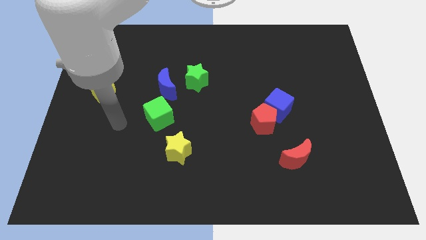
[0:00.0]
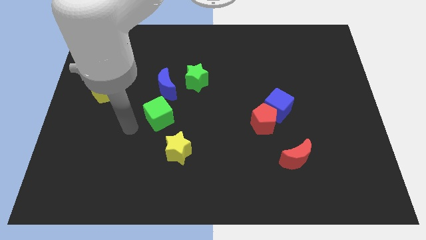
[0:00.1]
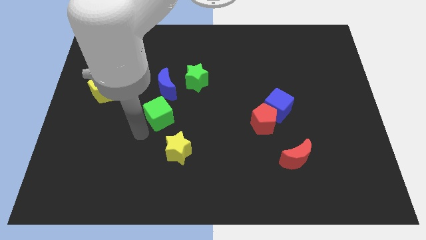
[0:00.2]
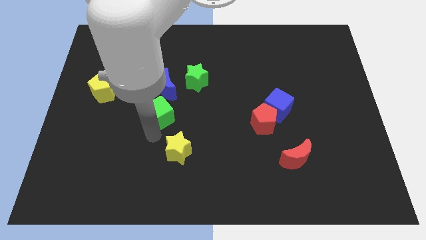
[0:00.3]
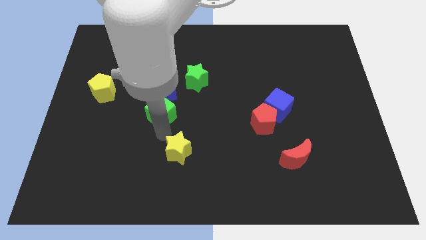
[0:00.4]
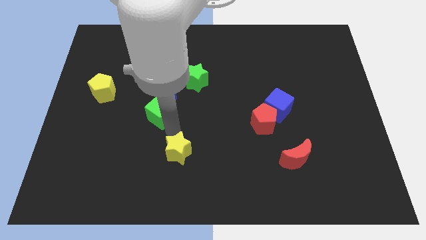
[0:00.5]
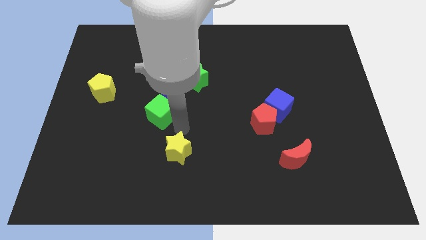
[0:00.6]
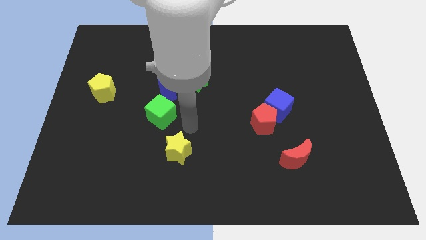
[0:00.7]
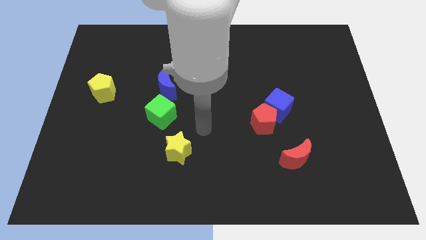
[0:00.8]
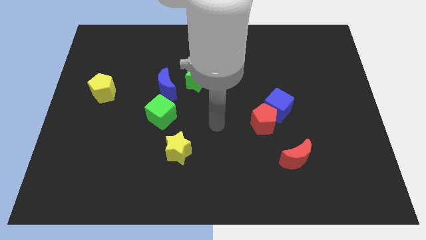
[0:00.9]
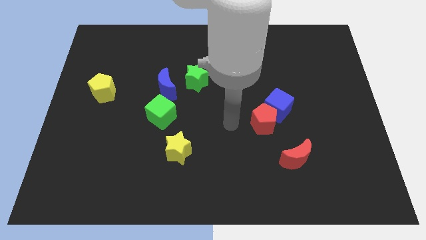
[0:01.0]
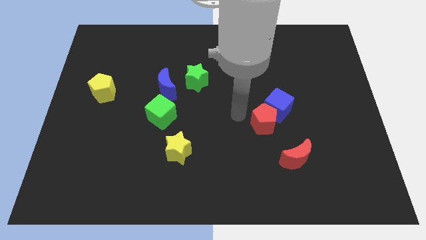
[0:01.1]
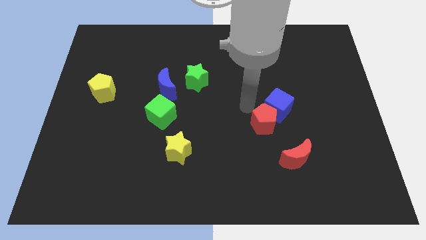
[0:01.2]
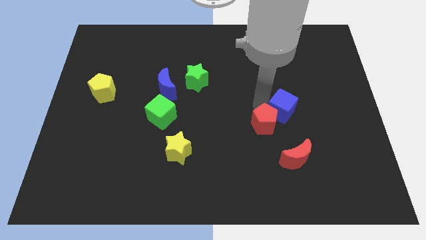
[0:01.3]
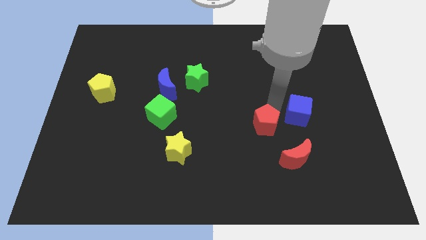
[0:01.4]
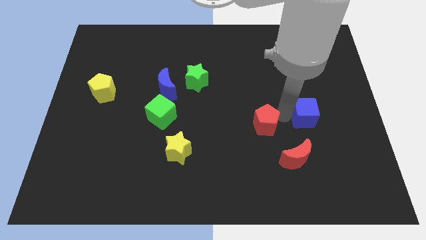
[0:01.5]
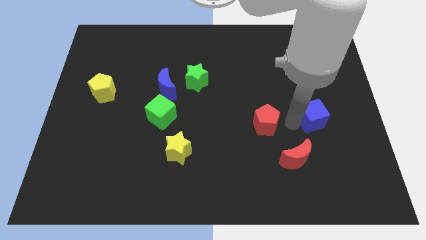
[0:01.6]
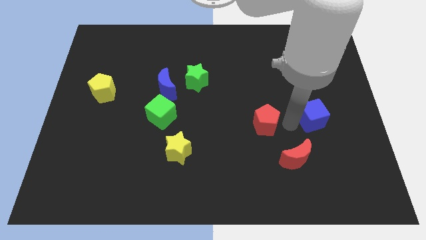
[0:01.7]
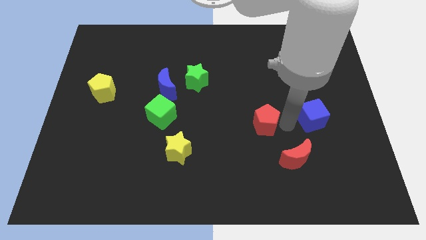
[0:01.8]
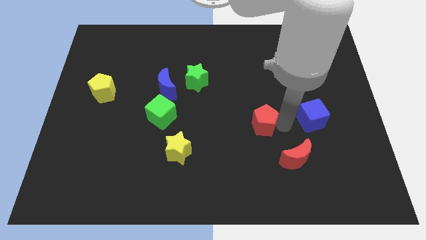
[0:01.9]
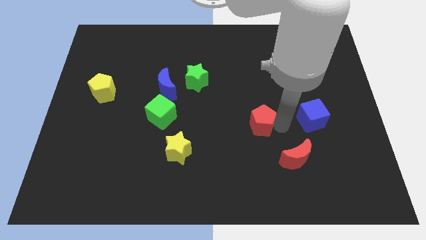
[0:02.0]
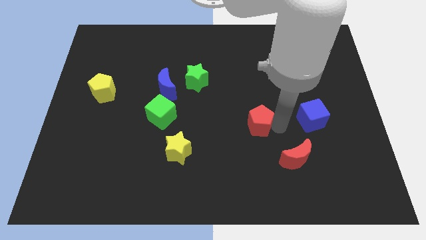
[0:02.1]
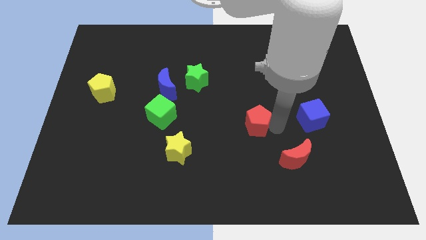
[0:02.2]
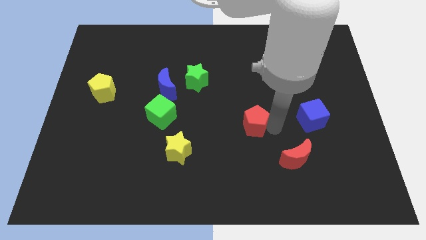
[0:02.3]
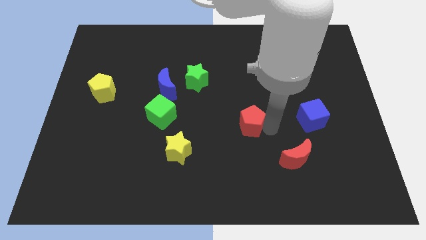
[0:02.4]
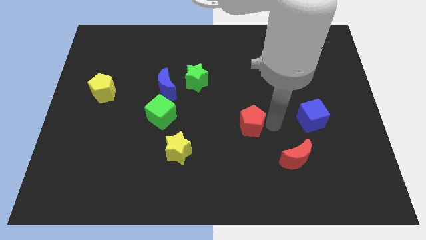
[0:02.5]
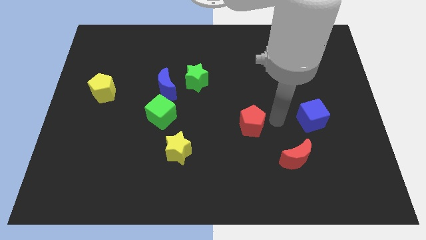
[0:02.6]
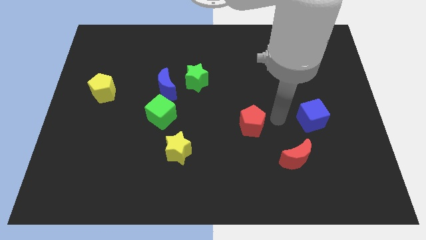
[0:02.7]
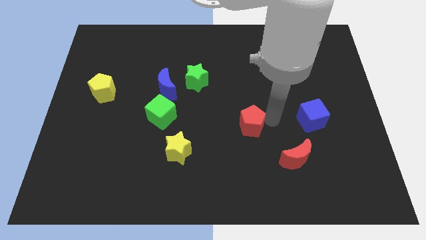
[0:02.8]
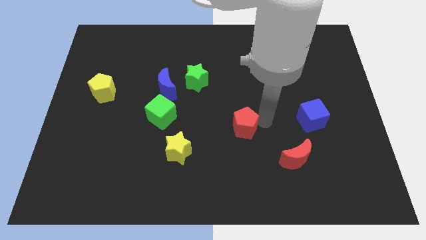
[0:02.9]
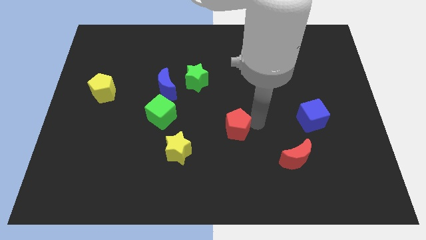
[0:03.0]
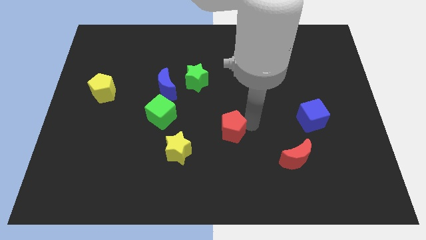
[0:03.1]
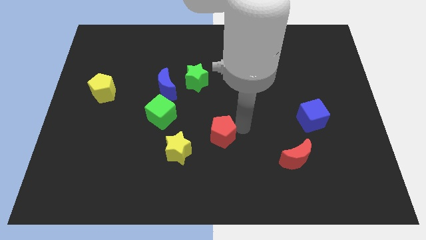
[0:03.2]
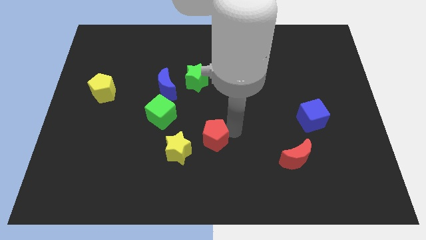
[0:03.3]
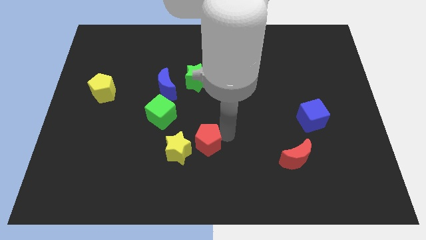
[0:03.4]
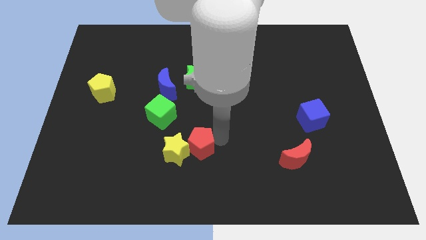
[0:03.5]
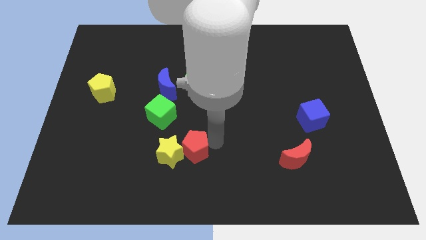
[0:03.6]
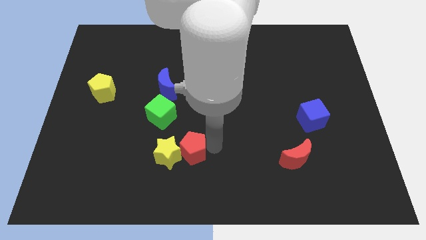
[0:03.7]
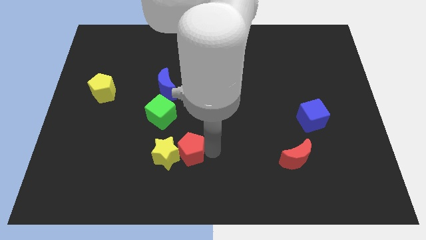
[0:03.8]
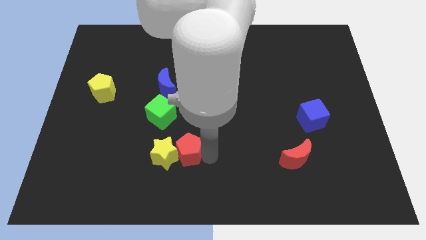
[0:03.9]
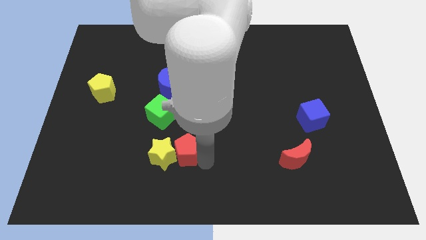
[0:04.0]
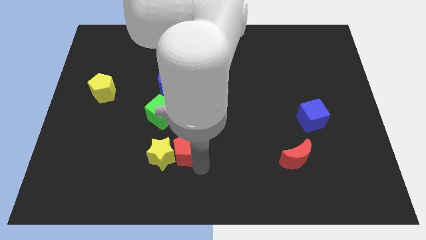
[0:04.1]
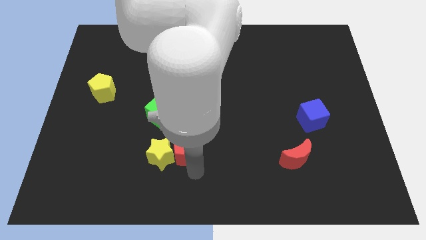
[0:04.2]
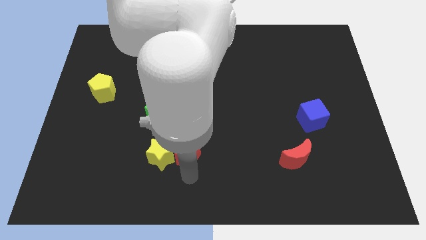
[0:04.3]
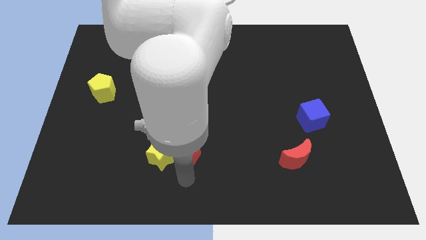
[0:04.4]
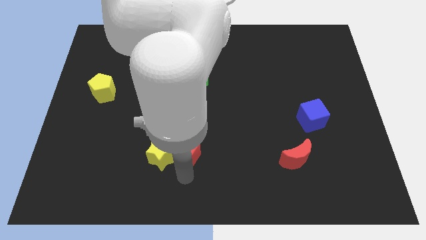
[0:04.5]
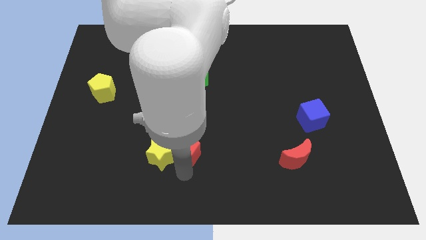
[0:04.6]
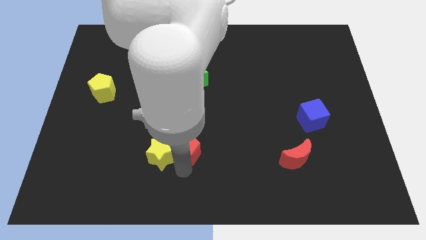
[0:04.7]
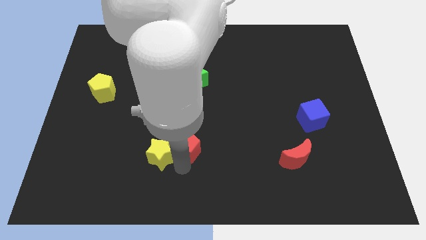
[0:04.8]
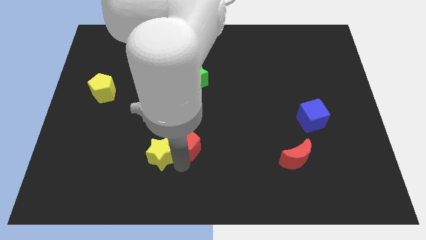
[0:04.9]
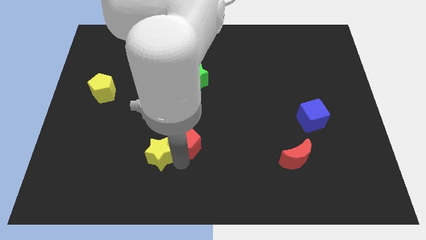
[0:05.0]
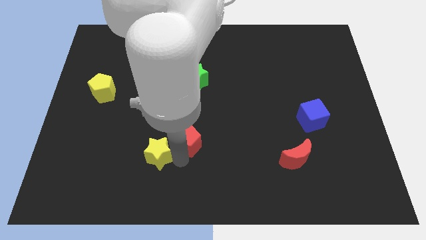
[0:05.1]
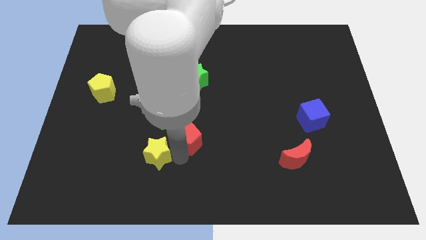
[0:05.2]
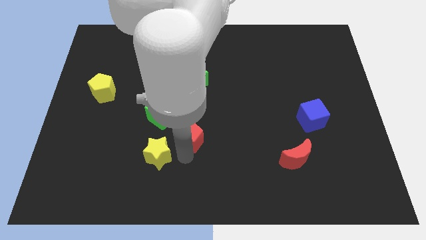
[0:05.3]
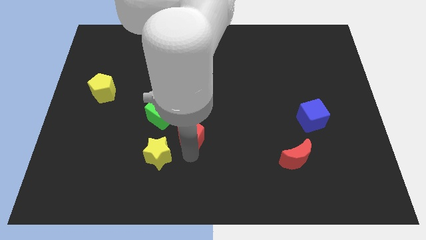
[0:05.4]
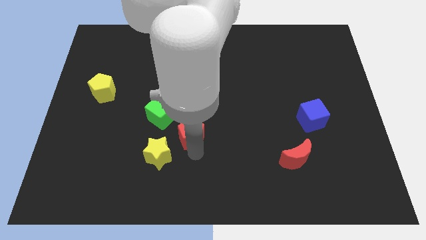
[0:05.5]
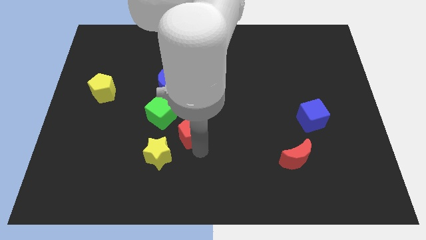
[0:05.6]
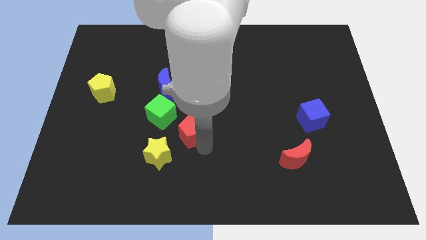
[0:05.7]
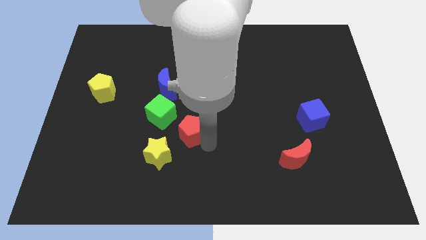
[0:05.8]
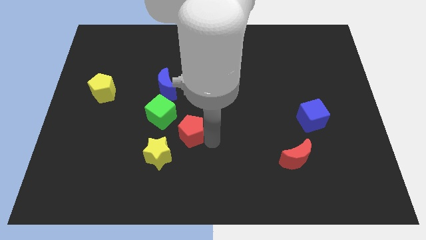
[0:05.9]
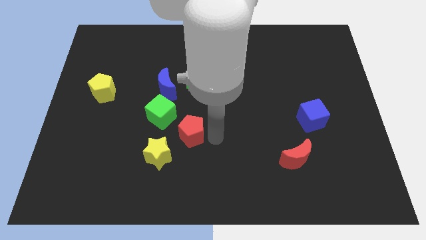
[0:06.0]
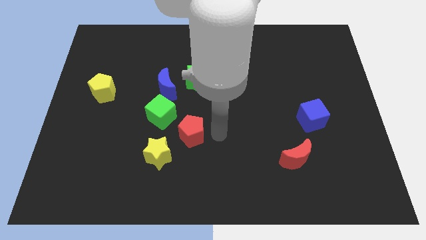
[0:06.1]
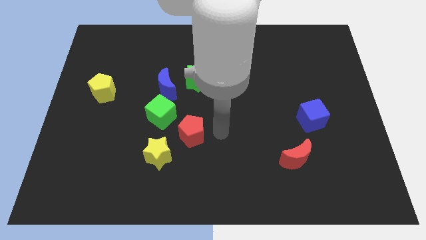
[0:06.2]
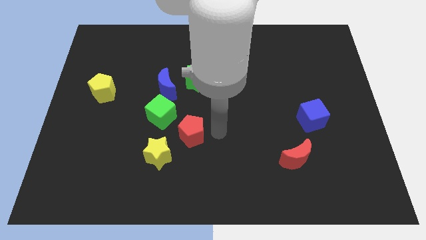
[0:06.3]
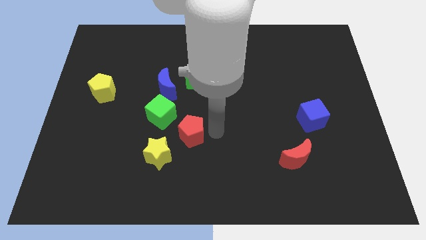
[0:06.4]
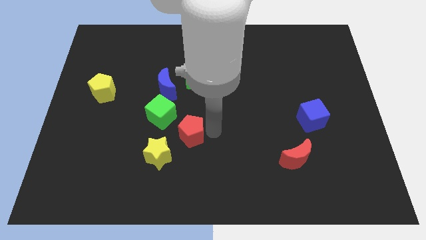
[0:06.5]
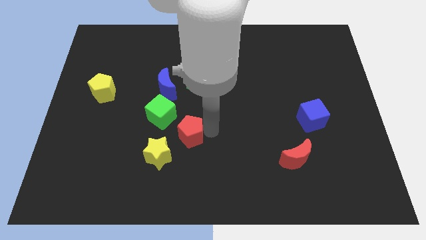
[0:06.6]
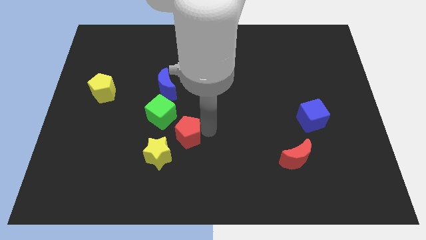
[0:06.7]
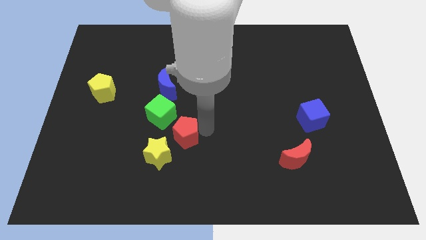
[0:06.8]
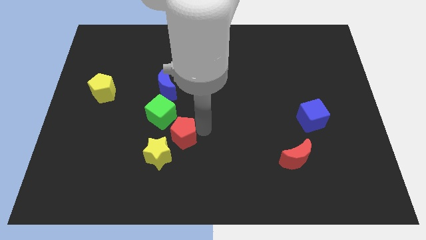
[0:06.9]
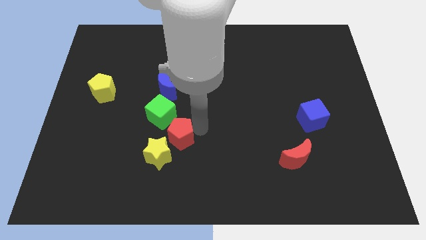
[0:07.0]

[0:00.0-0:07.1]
move the red pentagon to the bottom of the green cube
